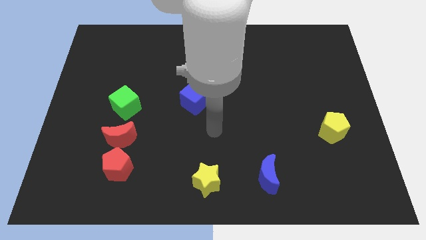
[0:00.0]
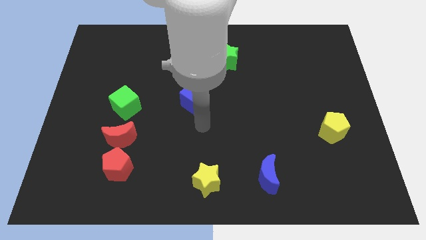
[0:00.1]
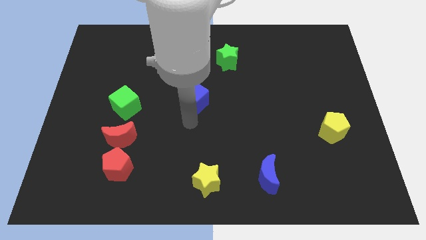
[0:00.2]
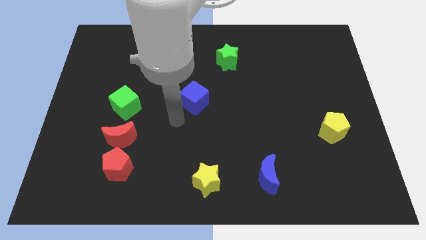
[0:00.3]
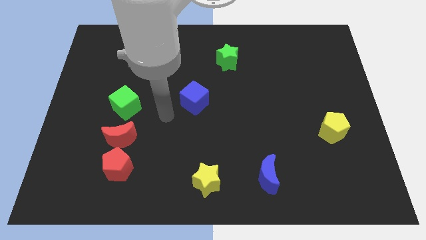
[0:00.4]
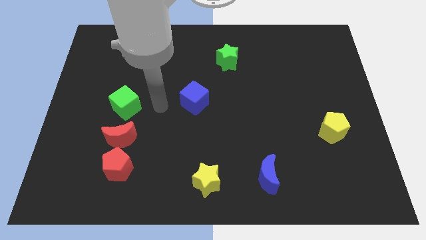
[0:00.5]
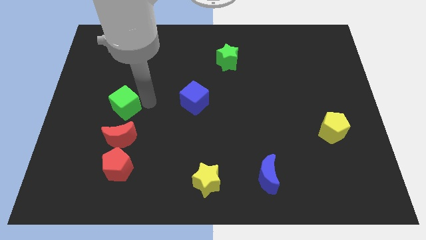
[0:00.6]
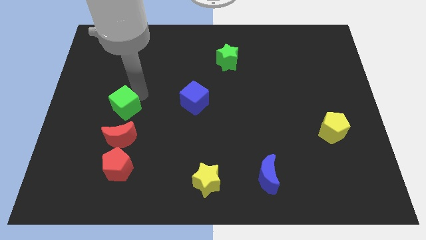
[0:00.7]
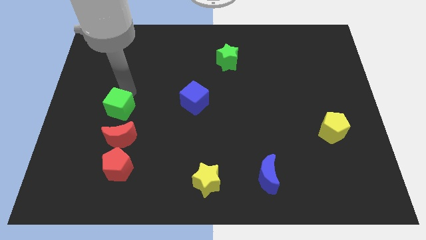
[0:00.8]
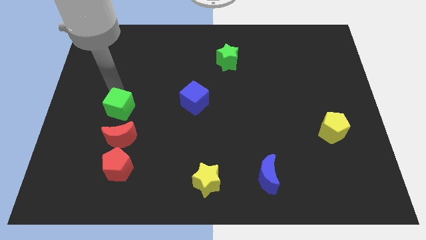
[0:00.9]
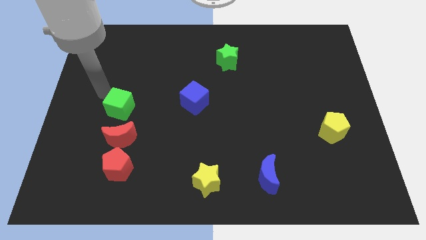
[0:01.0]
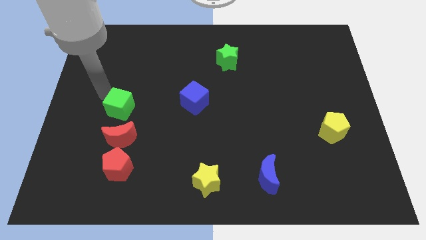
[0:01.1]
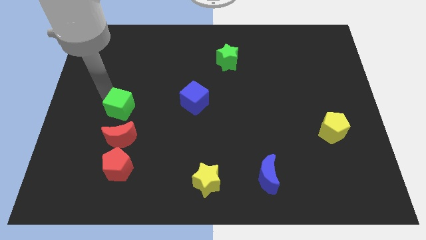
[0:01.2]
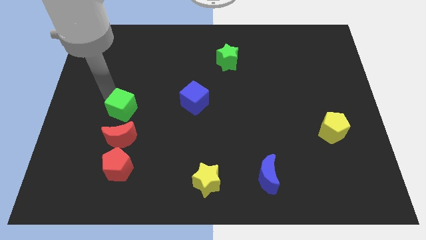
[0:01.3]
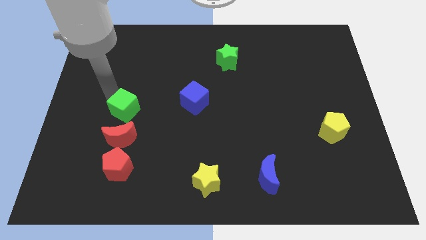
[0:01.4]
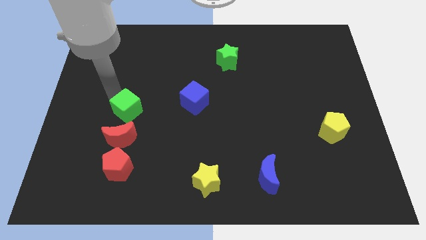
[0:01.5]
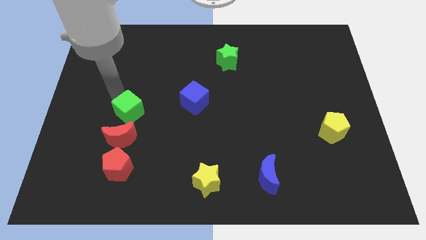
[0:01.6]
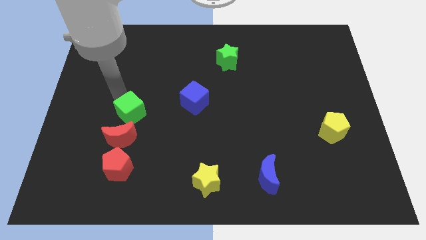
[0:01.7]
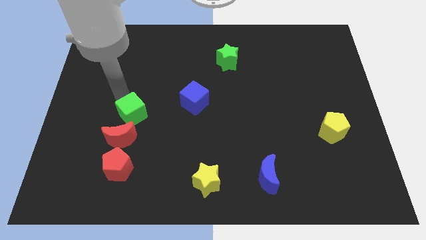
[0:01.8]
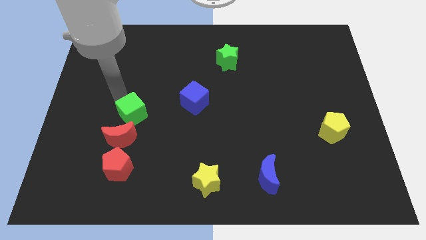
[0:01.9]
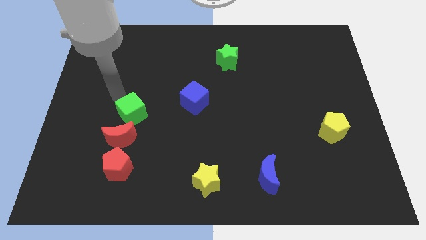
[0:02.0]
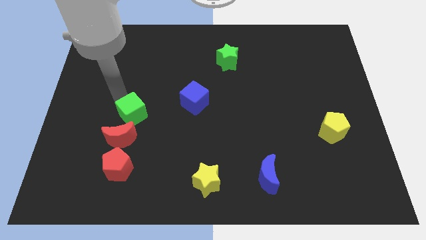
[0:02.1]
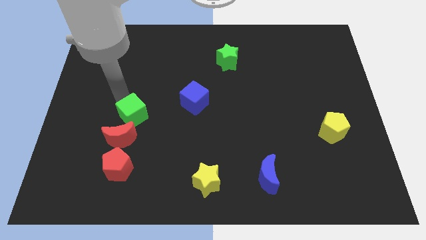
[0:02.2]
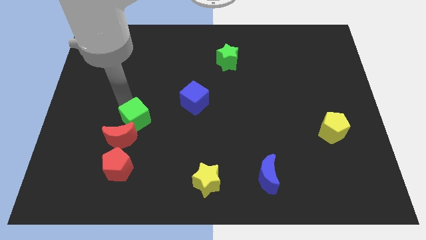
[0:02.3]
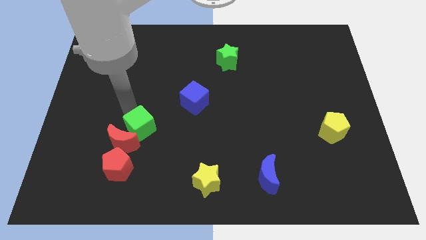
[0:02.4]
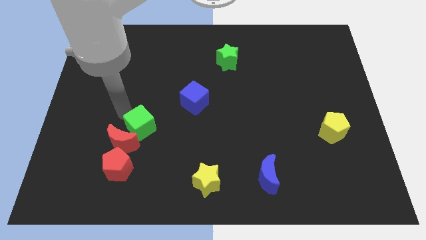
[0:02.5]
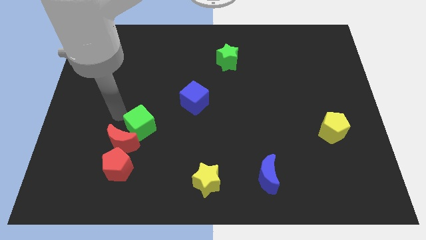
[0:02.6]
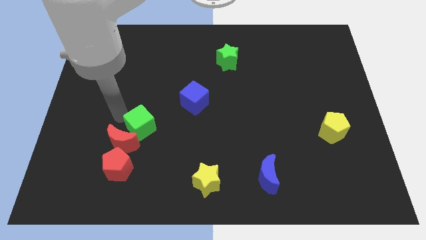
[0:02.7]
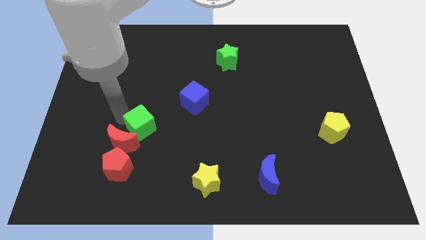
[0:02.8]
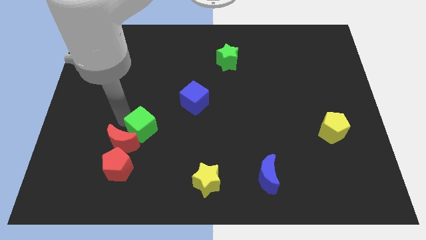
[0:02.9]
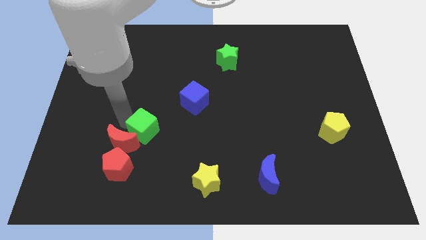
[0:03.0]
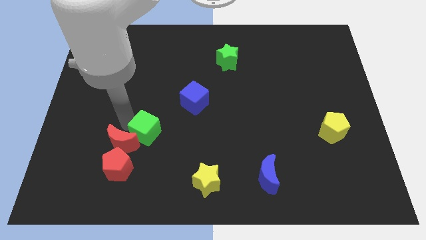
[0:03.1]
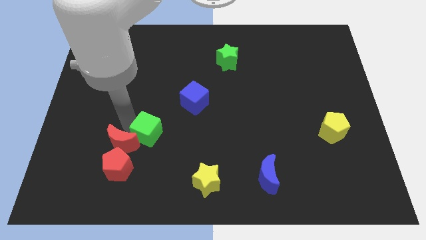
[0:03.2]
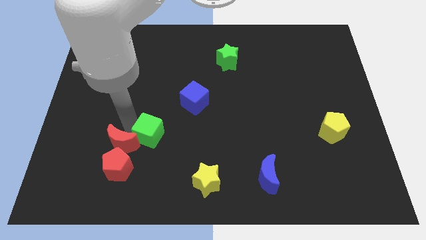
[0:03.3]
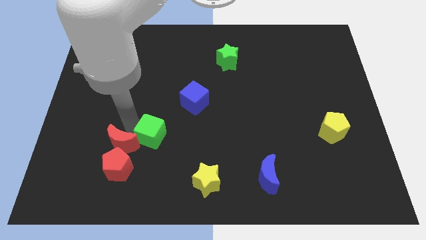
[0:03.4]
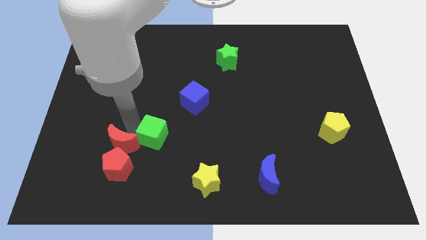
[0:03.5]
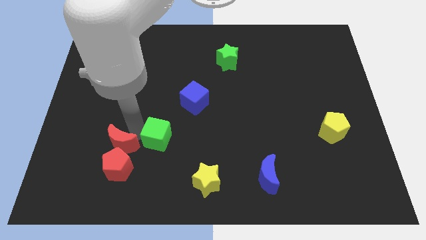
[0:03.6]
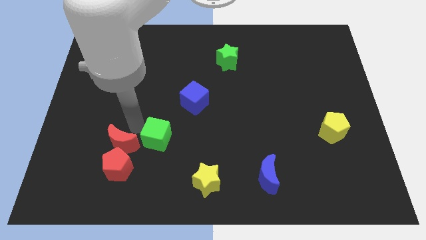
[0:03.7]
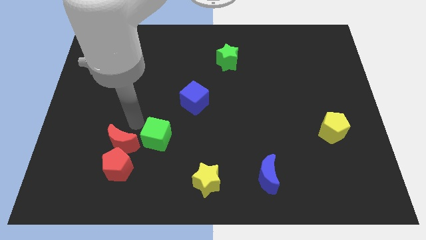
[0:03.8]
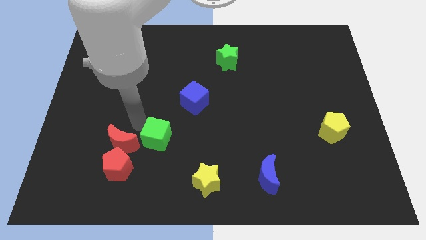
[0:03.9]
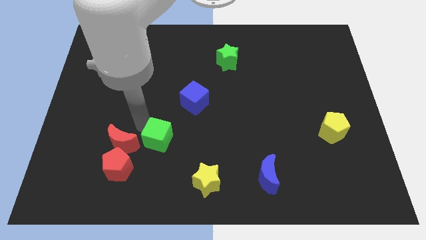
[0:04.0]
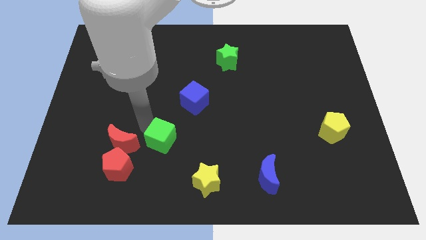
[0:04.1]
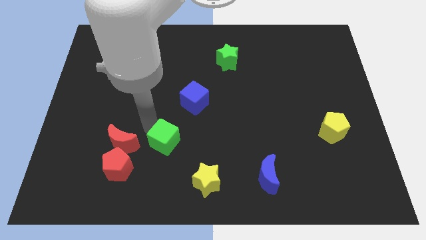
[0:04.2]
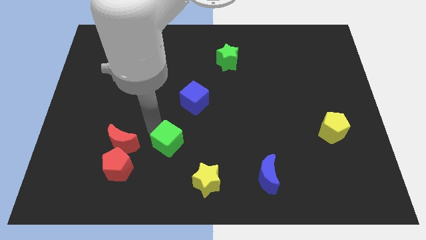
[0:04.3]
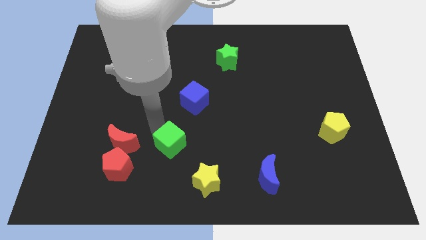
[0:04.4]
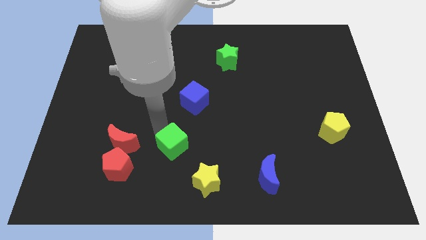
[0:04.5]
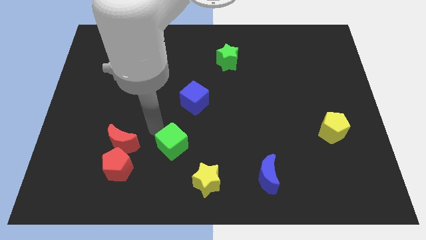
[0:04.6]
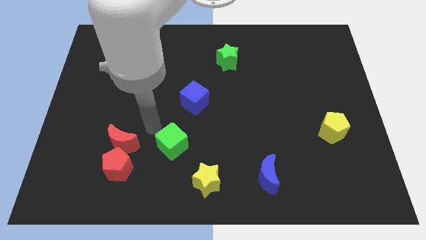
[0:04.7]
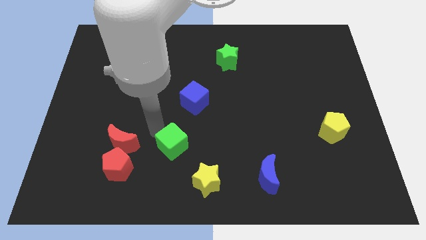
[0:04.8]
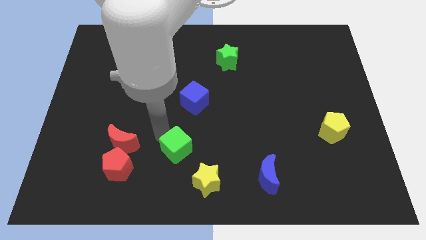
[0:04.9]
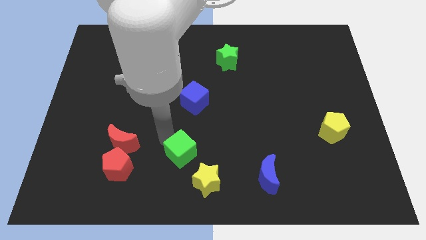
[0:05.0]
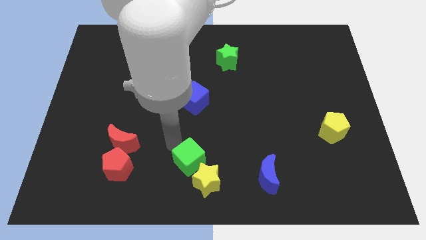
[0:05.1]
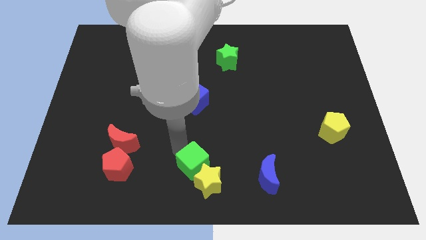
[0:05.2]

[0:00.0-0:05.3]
push the green cube to the yellow star

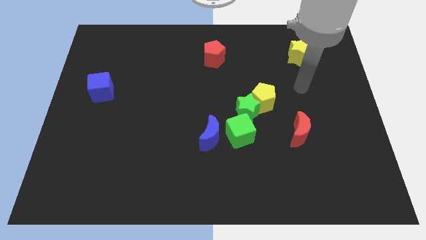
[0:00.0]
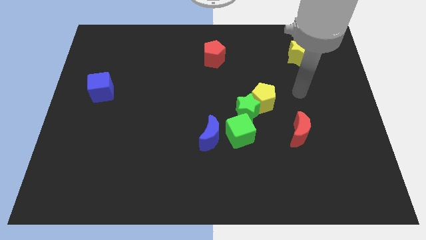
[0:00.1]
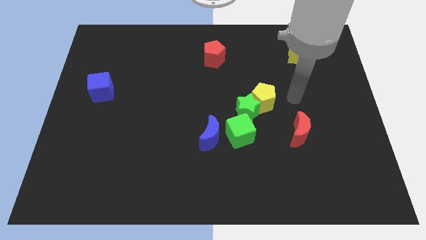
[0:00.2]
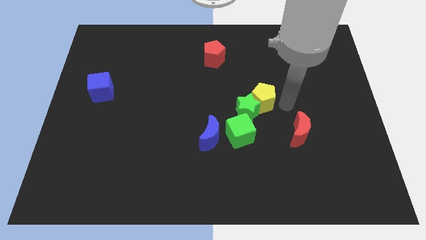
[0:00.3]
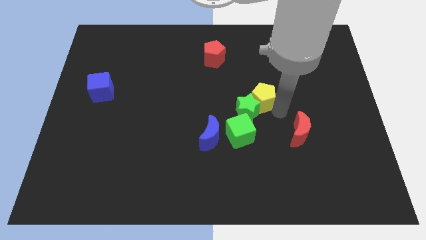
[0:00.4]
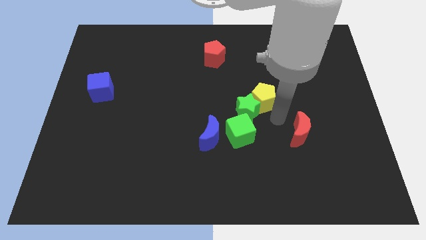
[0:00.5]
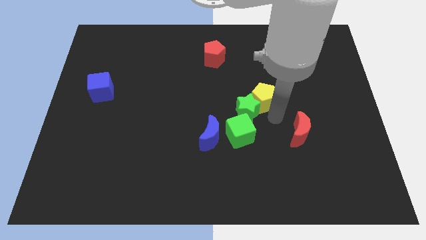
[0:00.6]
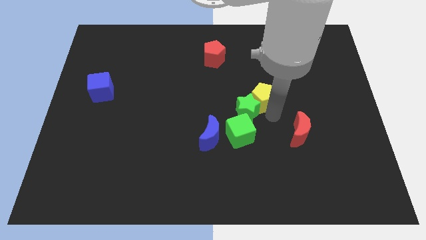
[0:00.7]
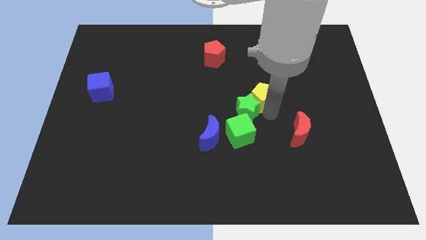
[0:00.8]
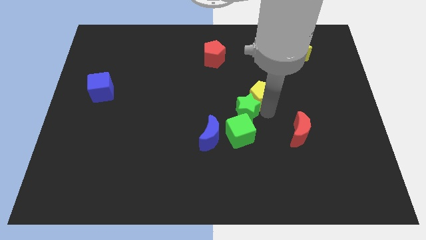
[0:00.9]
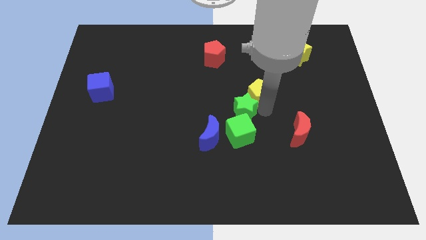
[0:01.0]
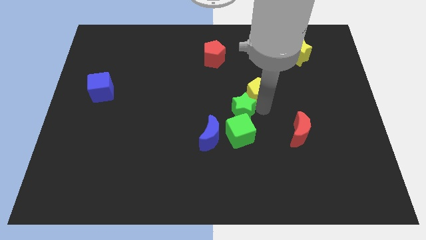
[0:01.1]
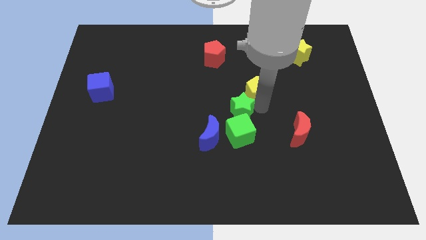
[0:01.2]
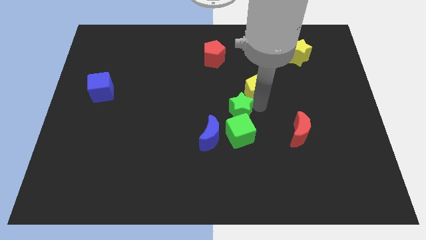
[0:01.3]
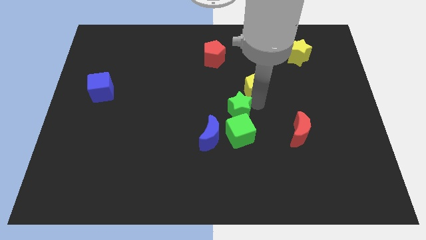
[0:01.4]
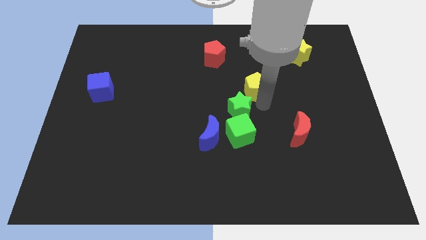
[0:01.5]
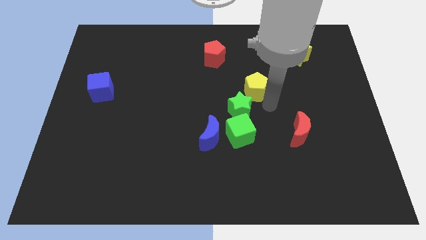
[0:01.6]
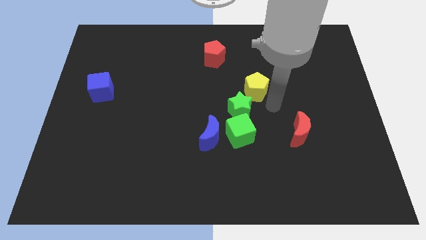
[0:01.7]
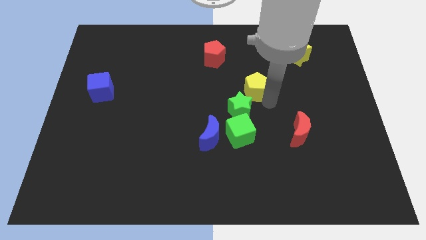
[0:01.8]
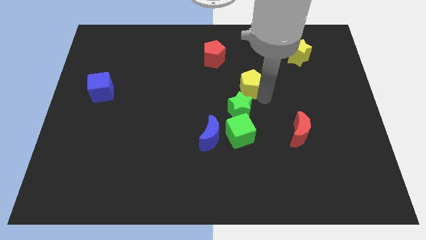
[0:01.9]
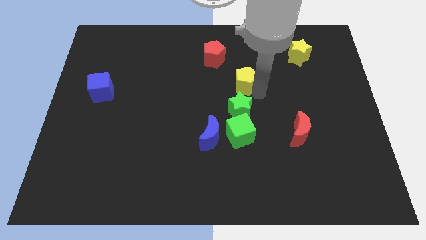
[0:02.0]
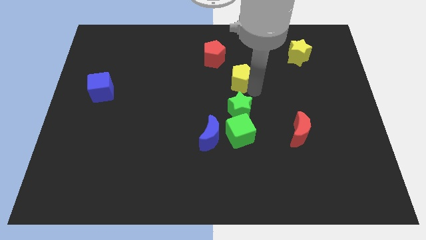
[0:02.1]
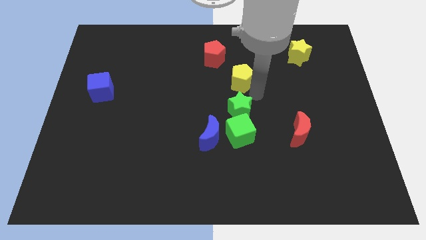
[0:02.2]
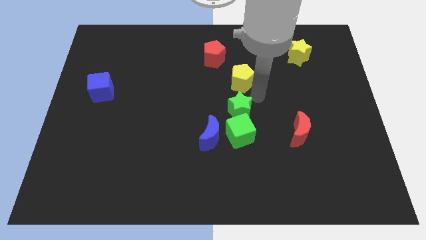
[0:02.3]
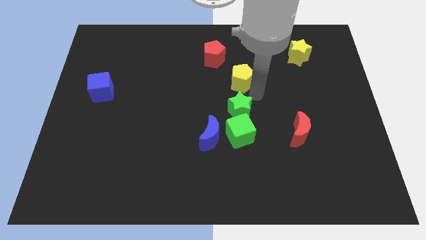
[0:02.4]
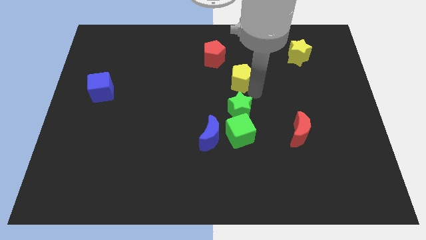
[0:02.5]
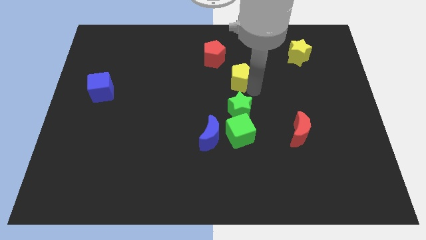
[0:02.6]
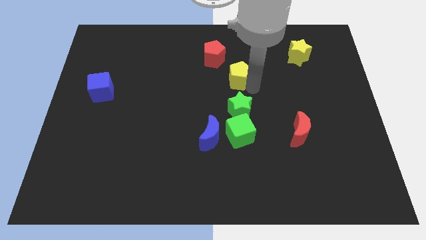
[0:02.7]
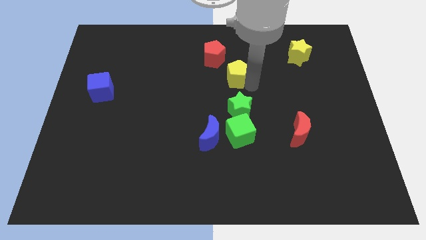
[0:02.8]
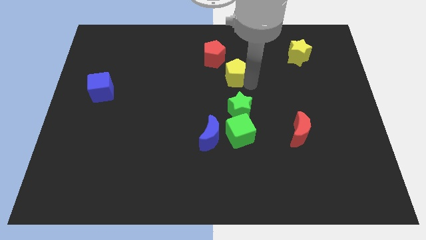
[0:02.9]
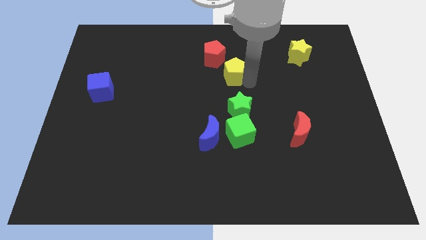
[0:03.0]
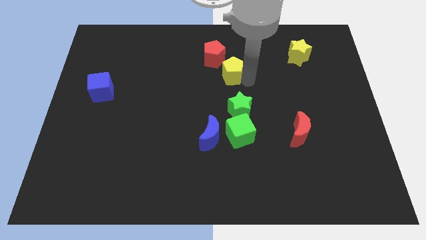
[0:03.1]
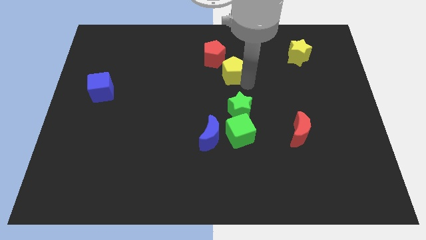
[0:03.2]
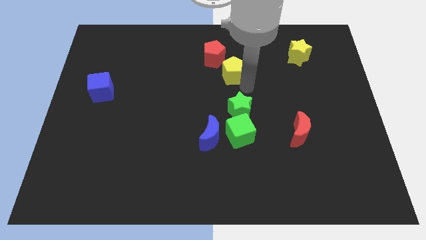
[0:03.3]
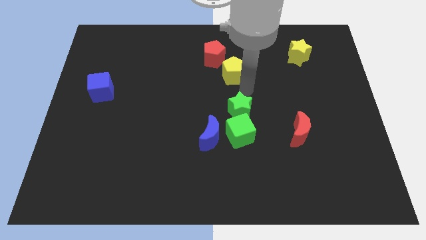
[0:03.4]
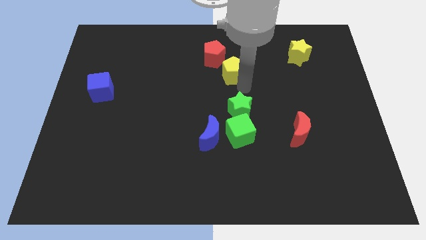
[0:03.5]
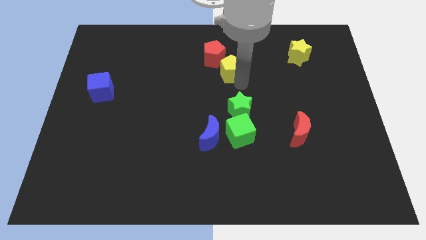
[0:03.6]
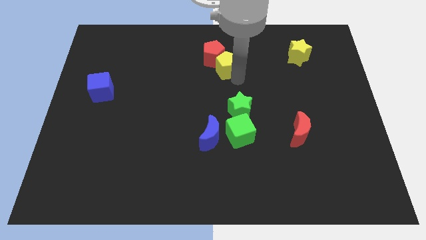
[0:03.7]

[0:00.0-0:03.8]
push the yellow pentagon next to the red pentagon
